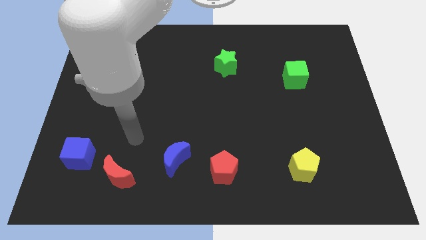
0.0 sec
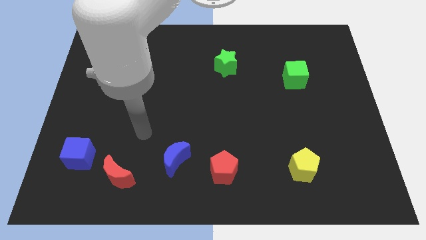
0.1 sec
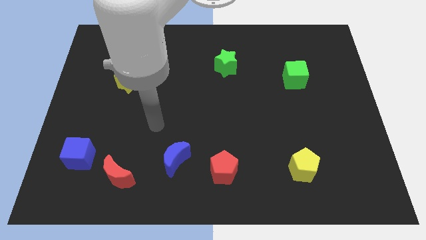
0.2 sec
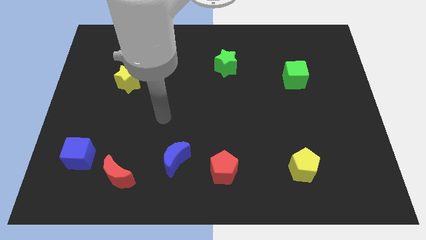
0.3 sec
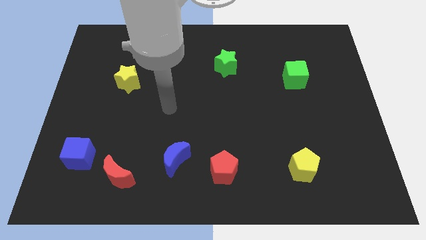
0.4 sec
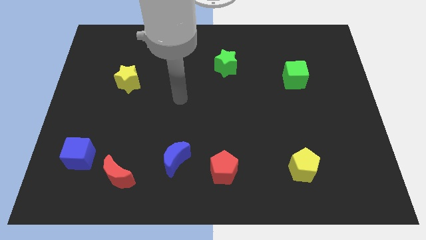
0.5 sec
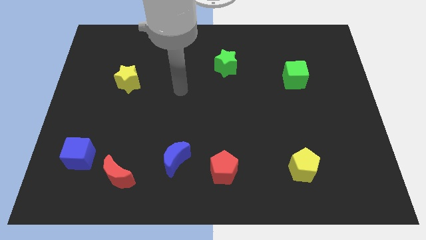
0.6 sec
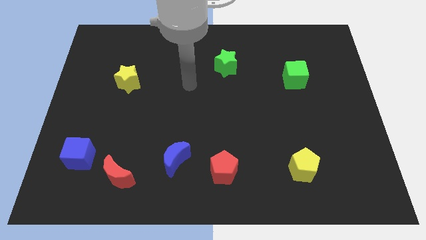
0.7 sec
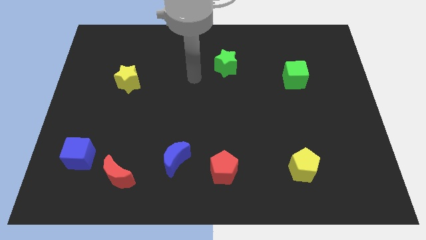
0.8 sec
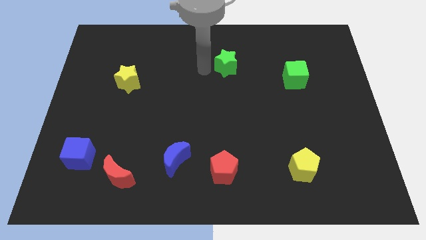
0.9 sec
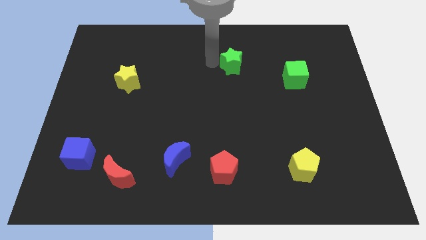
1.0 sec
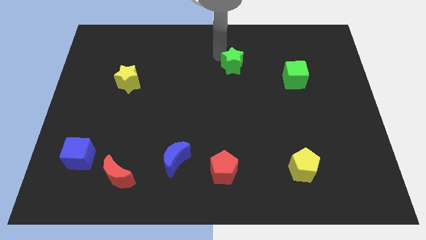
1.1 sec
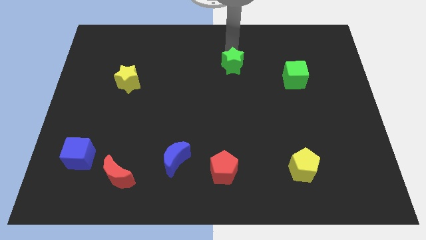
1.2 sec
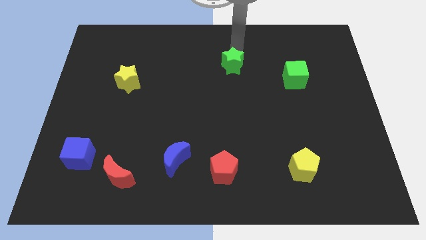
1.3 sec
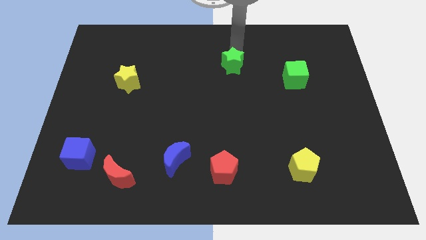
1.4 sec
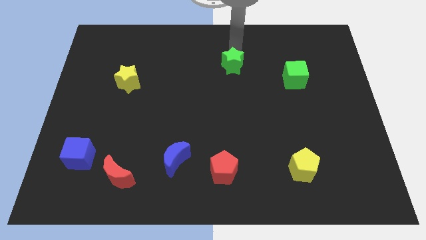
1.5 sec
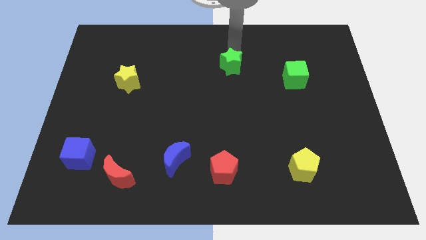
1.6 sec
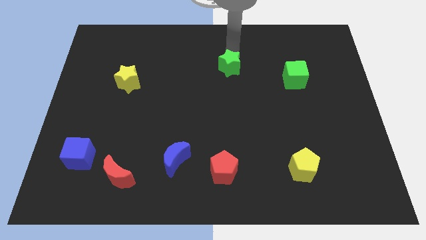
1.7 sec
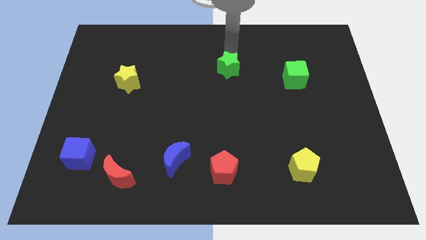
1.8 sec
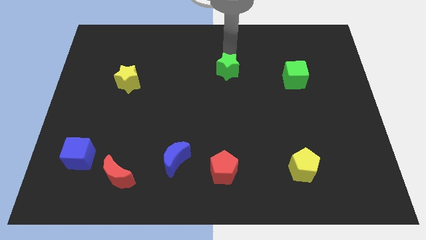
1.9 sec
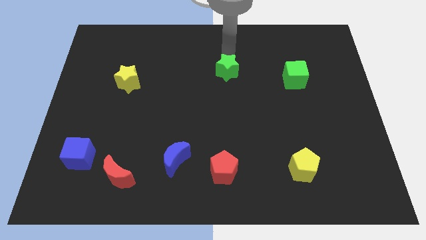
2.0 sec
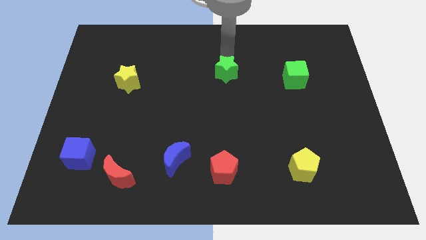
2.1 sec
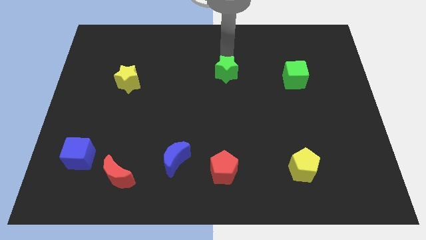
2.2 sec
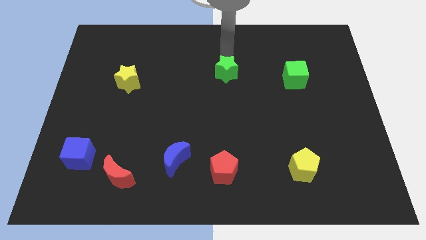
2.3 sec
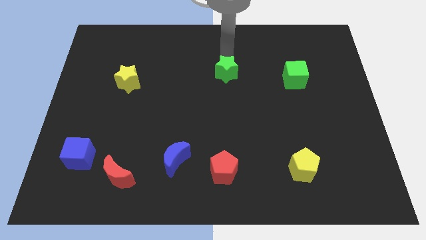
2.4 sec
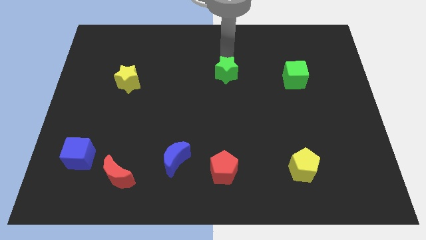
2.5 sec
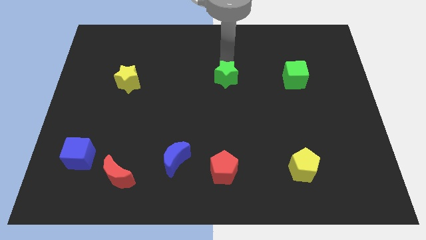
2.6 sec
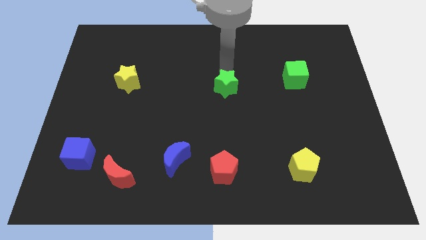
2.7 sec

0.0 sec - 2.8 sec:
move the green star somewhat down

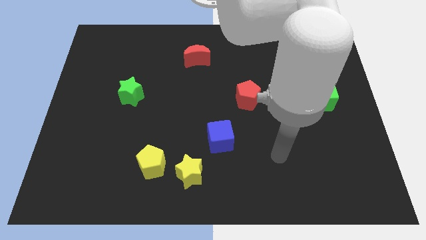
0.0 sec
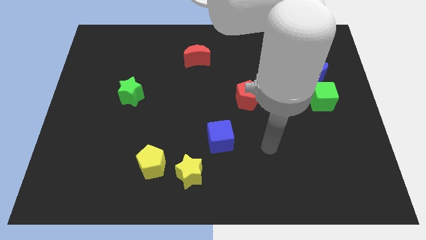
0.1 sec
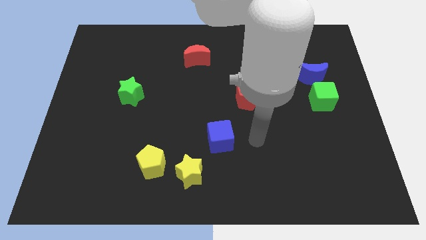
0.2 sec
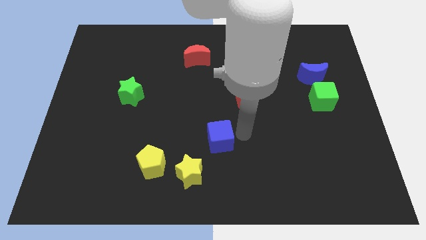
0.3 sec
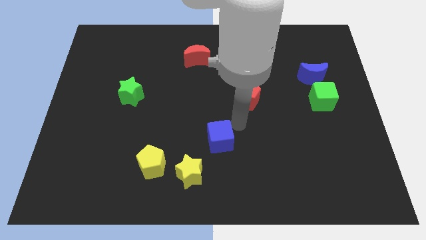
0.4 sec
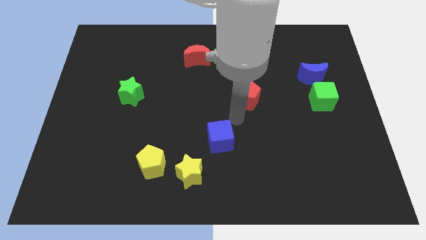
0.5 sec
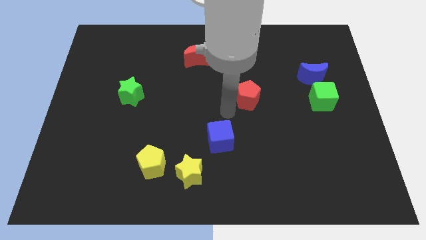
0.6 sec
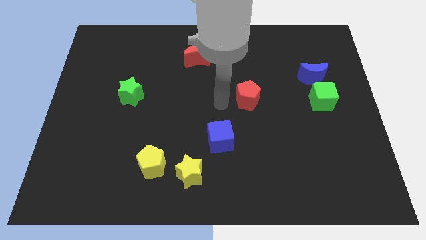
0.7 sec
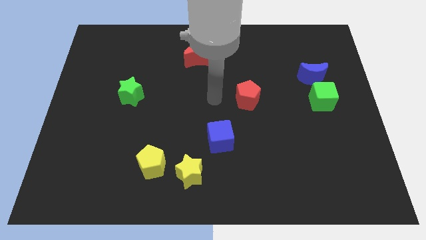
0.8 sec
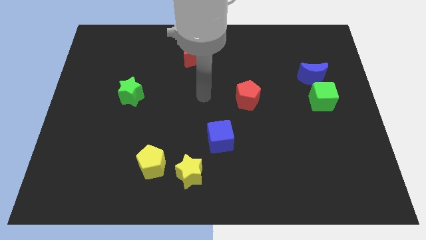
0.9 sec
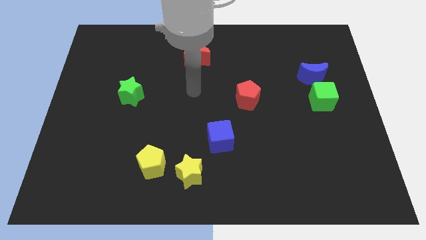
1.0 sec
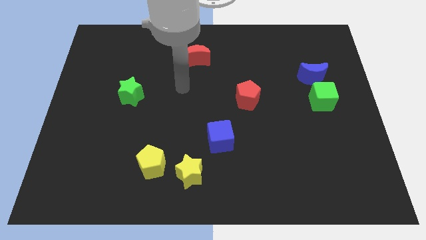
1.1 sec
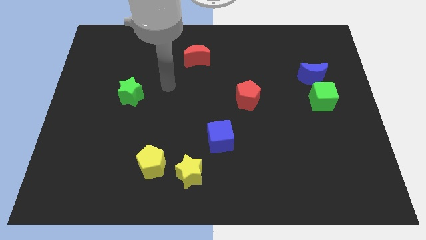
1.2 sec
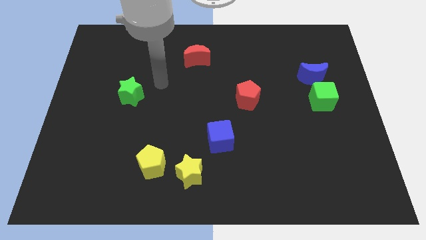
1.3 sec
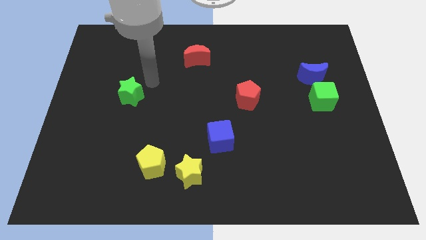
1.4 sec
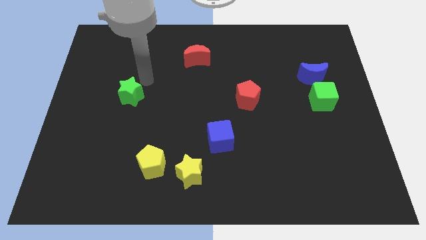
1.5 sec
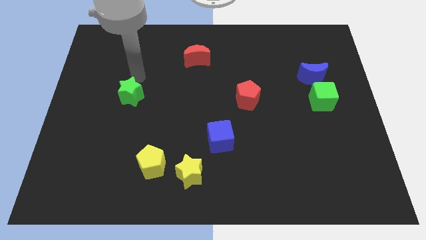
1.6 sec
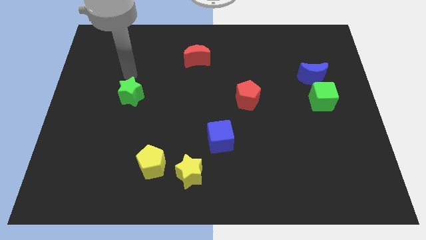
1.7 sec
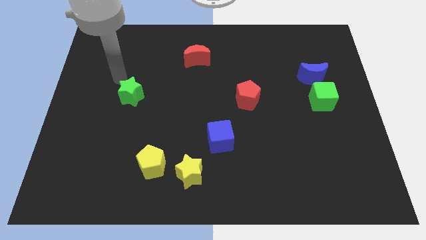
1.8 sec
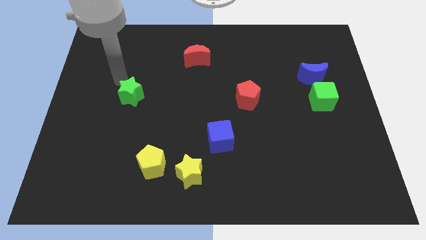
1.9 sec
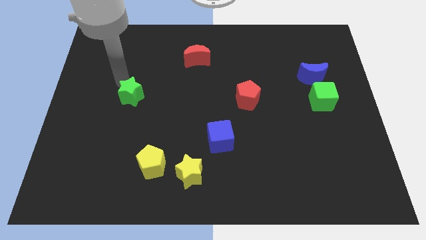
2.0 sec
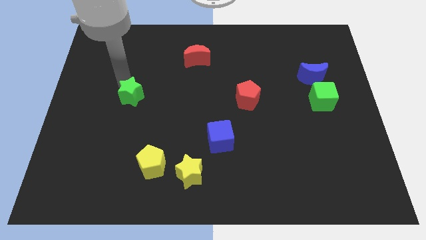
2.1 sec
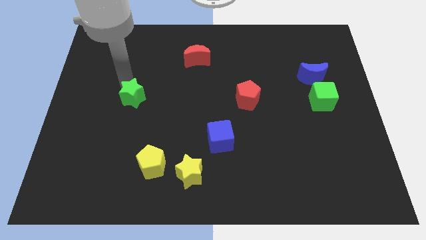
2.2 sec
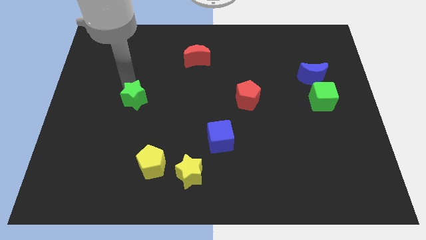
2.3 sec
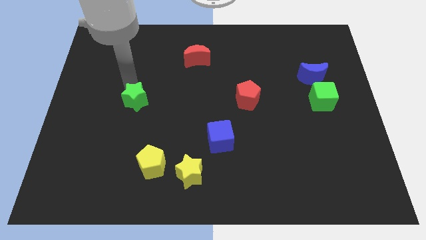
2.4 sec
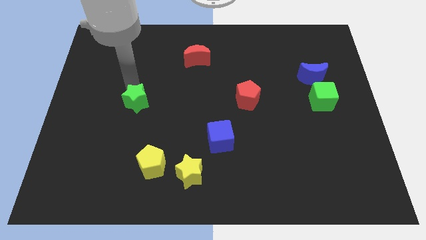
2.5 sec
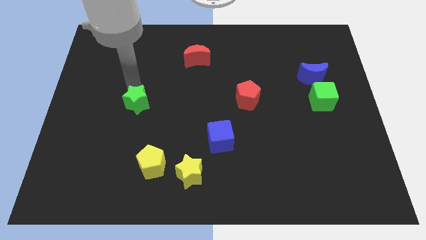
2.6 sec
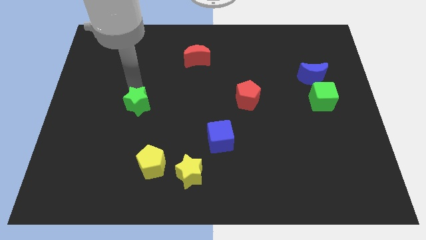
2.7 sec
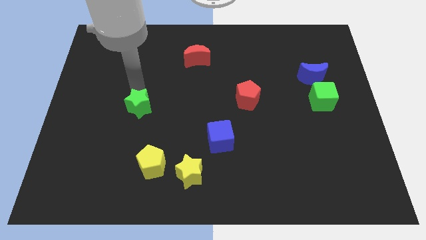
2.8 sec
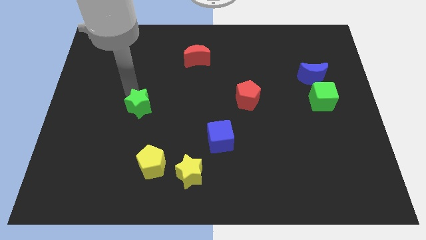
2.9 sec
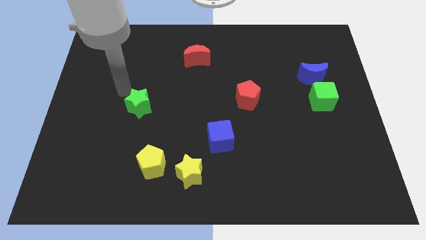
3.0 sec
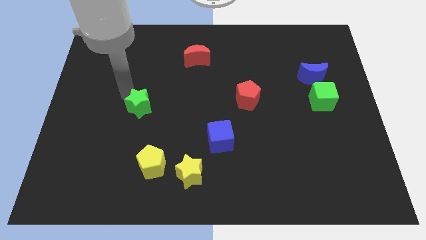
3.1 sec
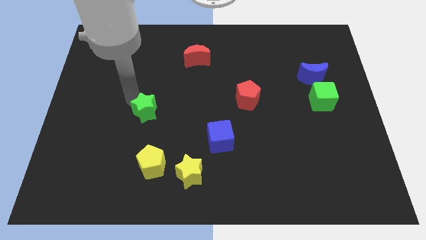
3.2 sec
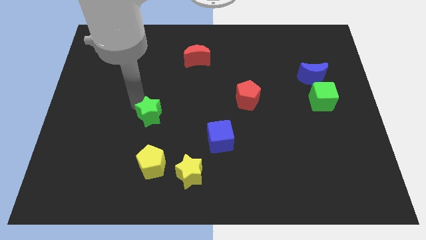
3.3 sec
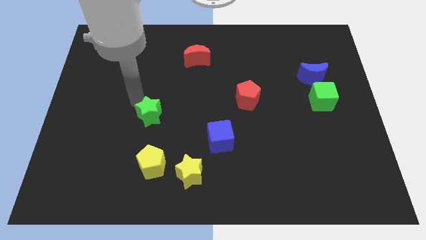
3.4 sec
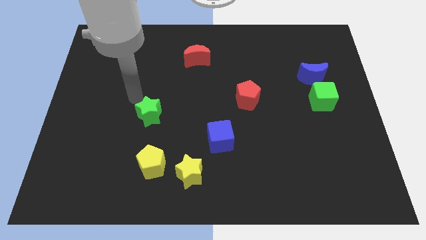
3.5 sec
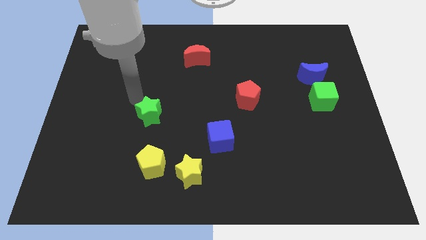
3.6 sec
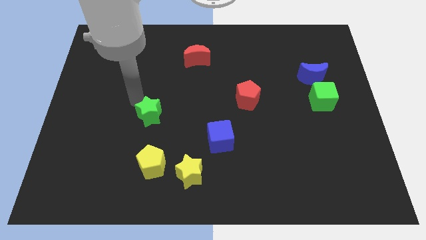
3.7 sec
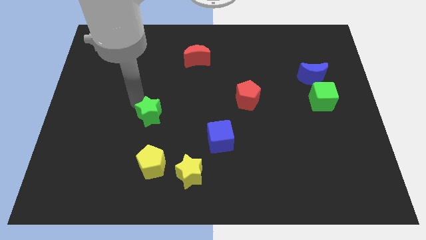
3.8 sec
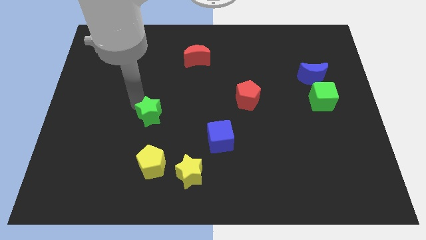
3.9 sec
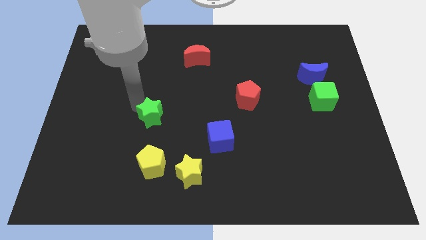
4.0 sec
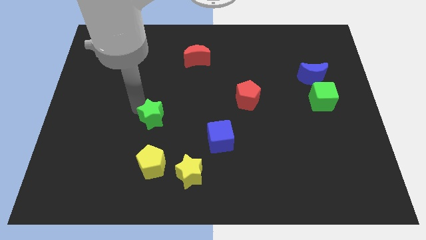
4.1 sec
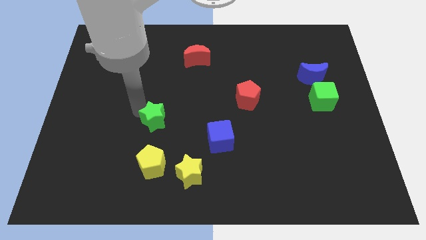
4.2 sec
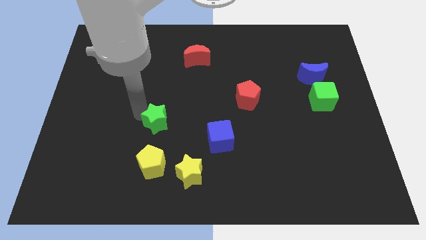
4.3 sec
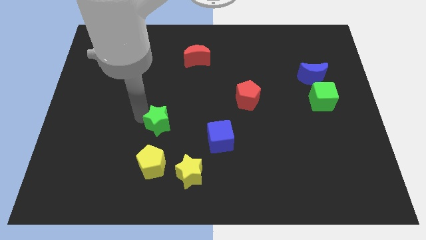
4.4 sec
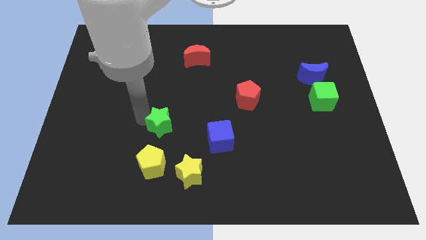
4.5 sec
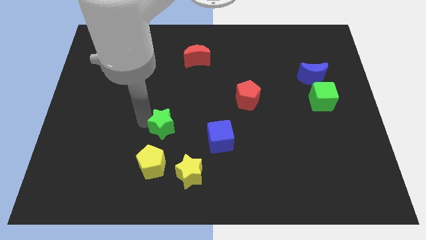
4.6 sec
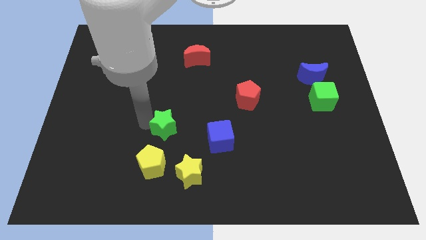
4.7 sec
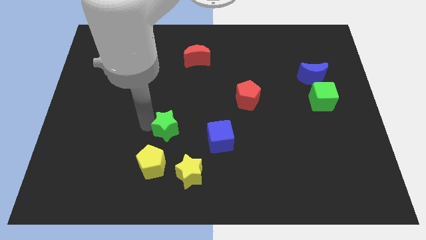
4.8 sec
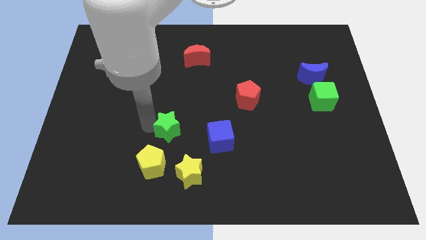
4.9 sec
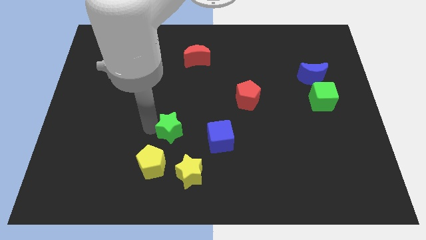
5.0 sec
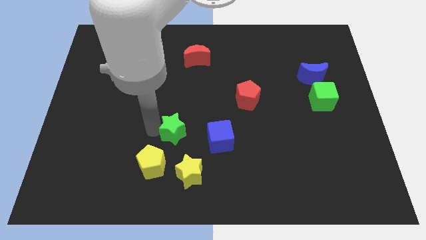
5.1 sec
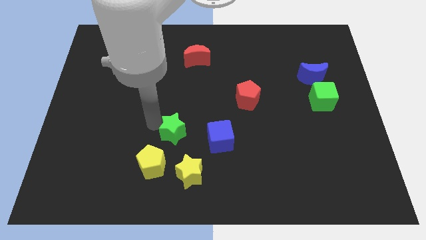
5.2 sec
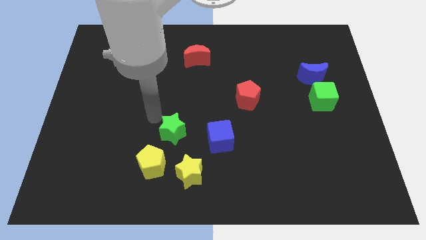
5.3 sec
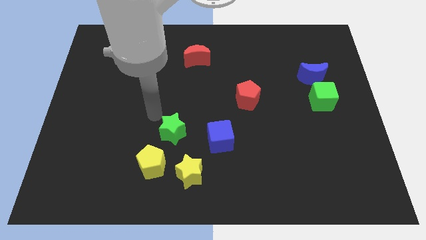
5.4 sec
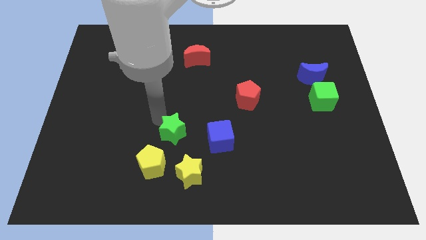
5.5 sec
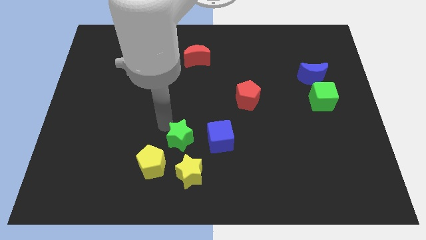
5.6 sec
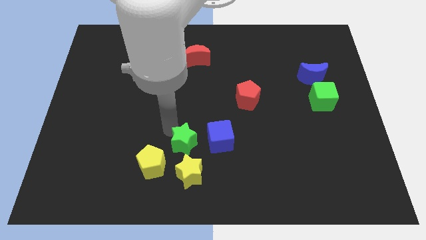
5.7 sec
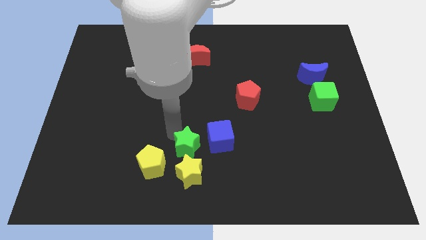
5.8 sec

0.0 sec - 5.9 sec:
push the green star downwards and to the right diagonally
